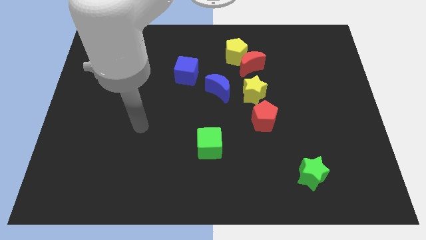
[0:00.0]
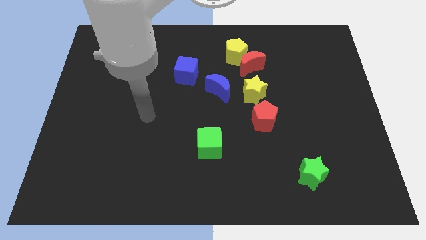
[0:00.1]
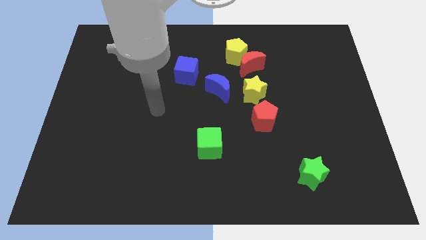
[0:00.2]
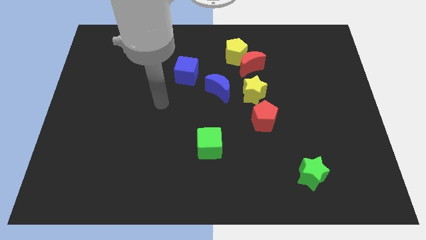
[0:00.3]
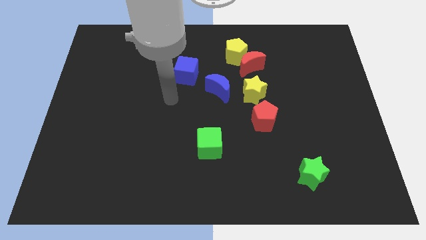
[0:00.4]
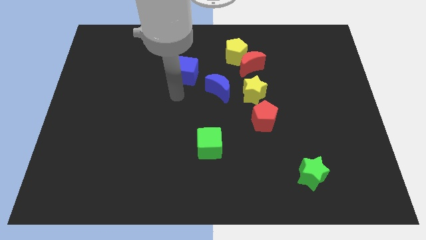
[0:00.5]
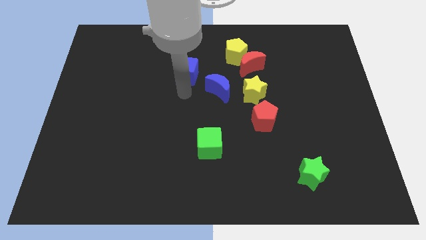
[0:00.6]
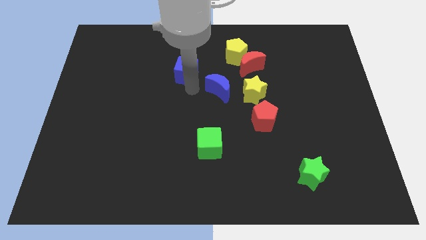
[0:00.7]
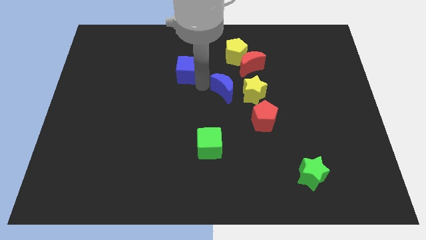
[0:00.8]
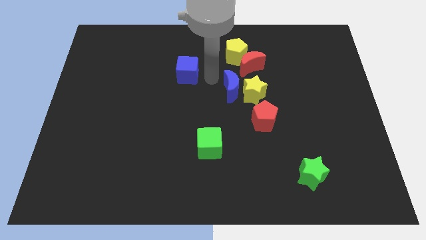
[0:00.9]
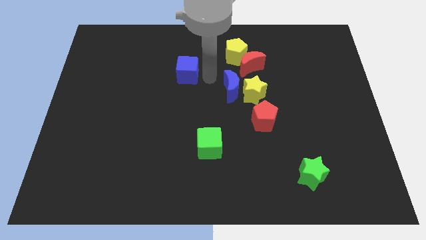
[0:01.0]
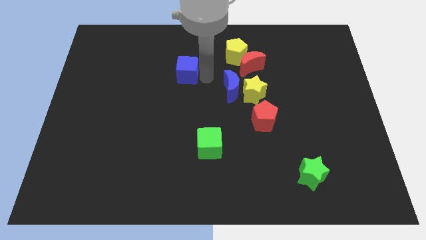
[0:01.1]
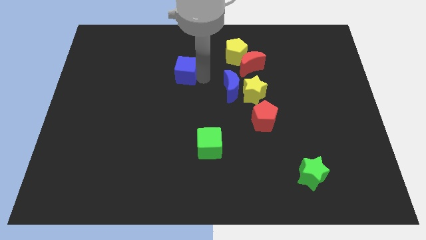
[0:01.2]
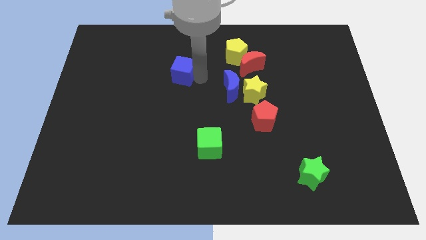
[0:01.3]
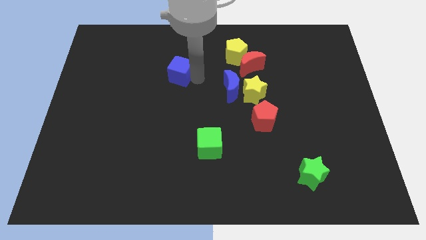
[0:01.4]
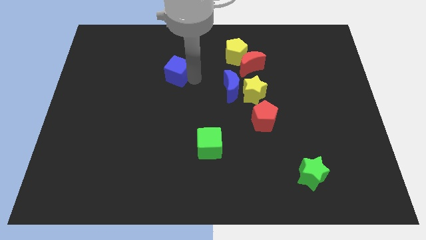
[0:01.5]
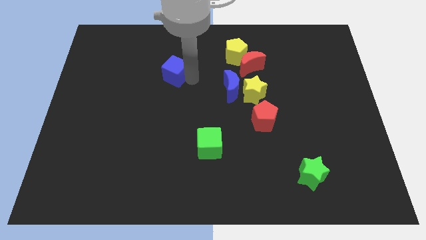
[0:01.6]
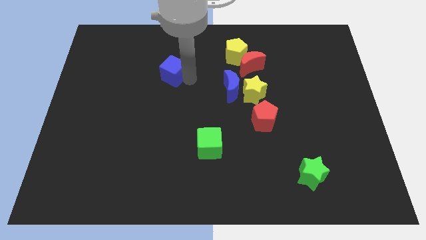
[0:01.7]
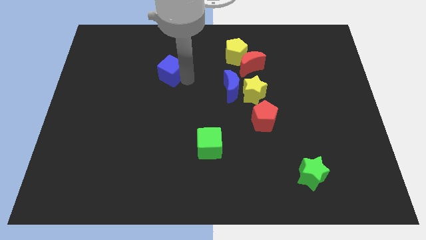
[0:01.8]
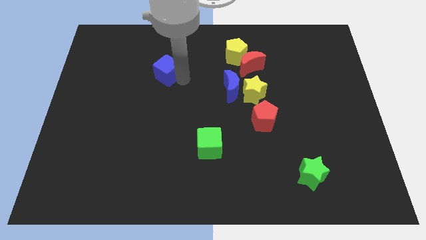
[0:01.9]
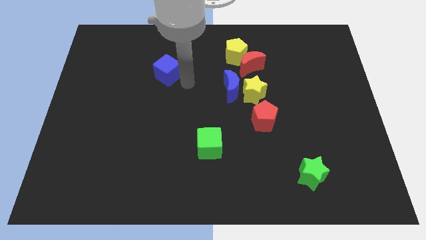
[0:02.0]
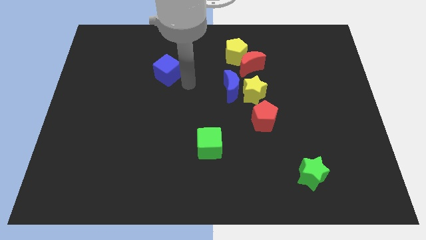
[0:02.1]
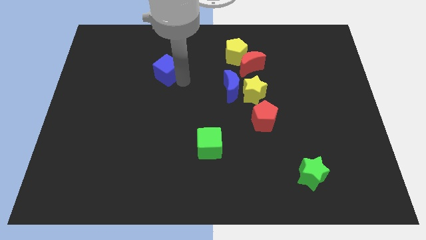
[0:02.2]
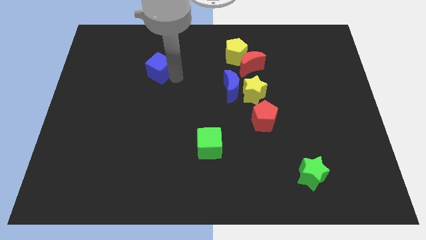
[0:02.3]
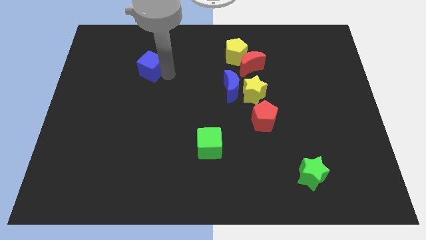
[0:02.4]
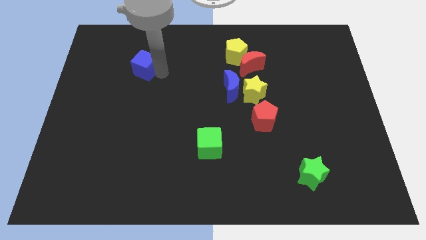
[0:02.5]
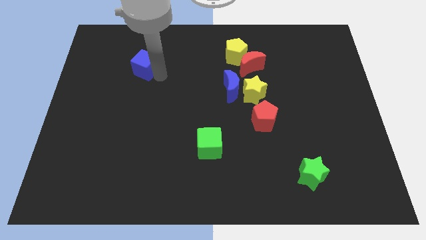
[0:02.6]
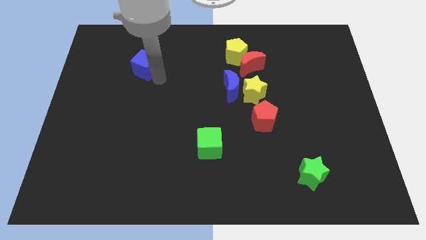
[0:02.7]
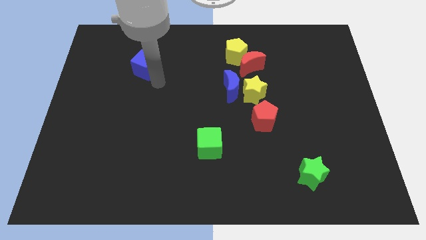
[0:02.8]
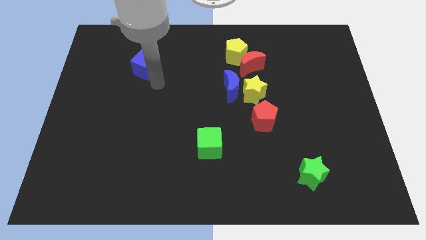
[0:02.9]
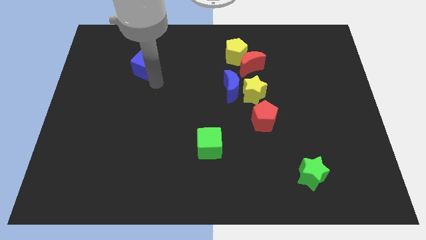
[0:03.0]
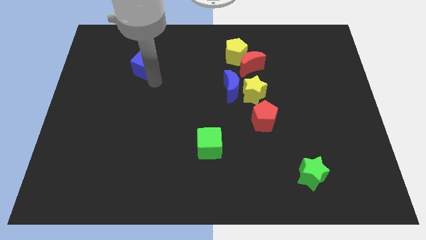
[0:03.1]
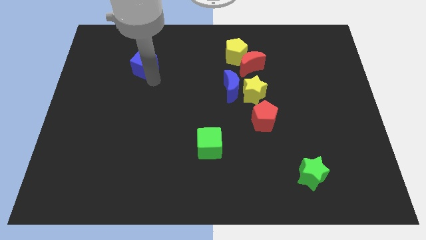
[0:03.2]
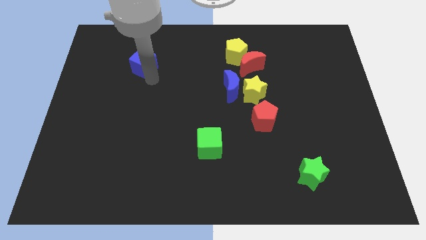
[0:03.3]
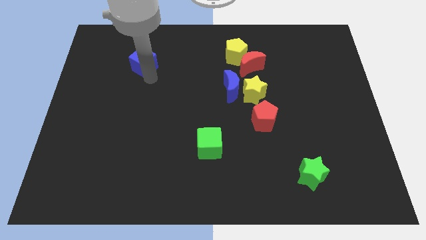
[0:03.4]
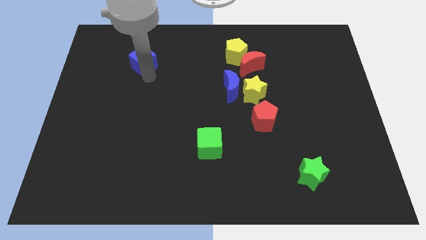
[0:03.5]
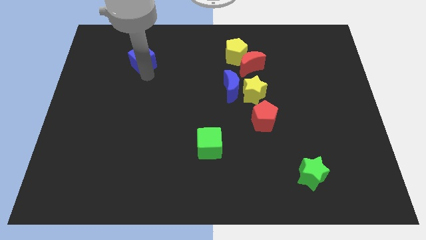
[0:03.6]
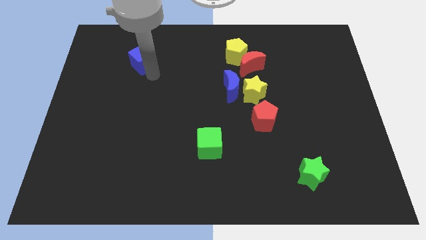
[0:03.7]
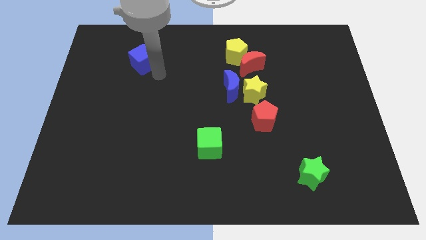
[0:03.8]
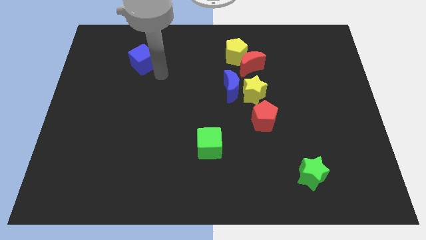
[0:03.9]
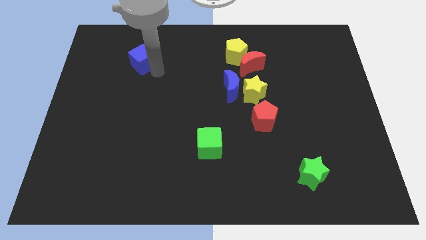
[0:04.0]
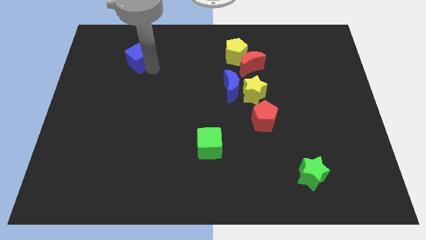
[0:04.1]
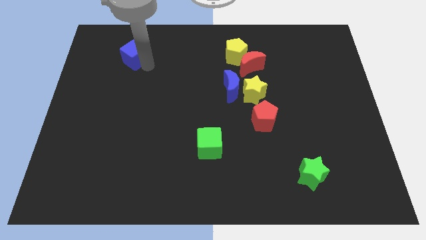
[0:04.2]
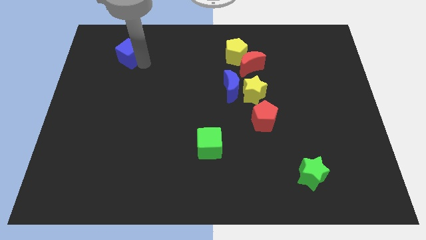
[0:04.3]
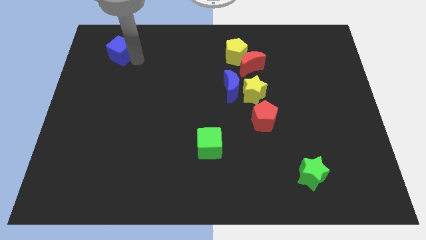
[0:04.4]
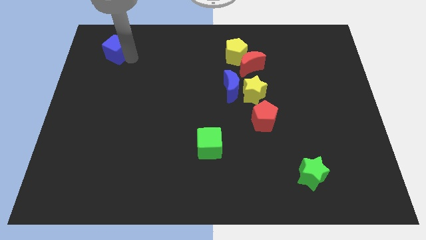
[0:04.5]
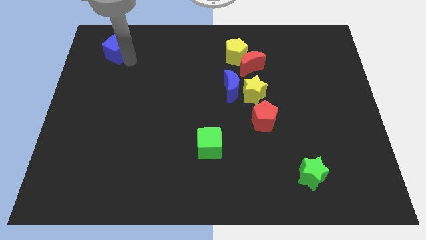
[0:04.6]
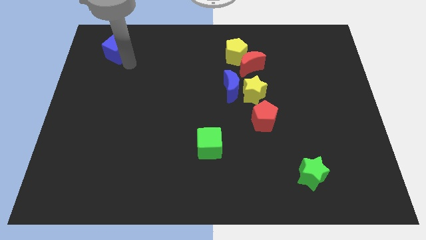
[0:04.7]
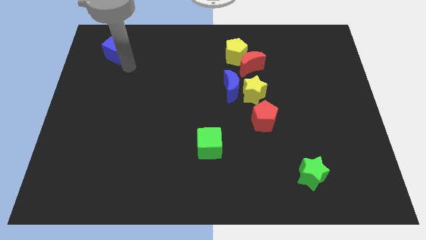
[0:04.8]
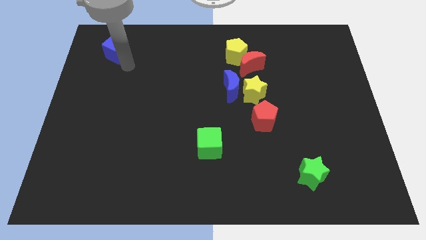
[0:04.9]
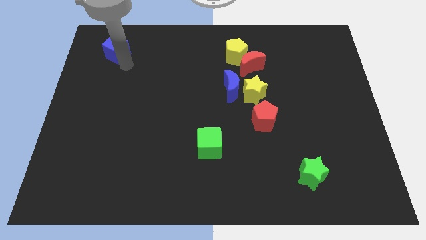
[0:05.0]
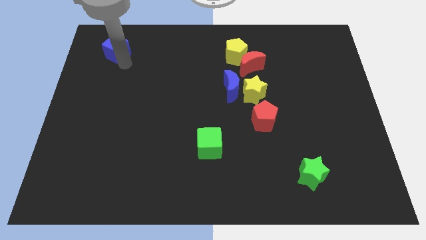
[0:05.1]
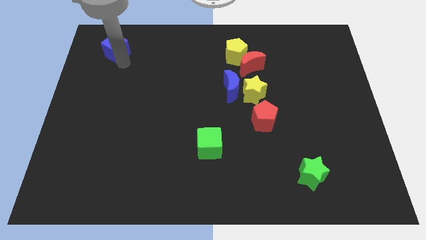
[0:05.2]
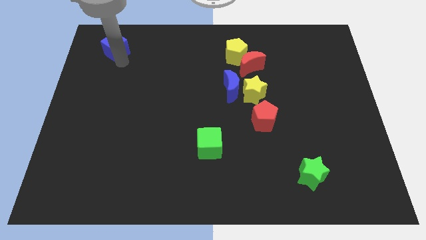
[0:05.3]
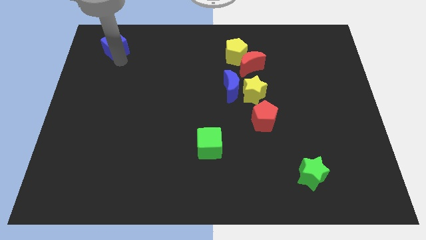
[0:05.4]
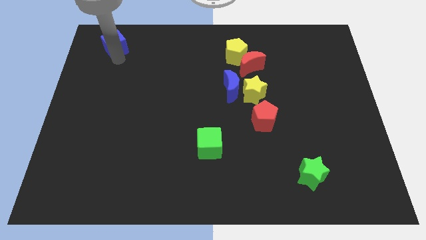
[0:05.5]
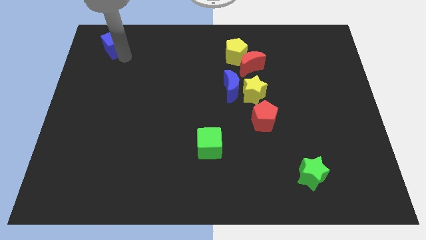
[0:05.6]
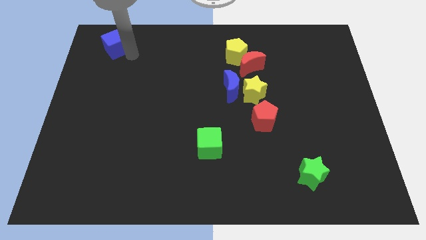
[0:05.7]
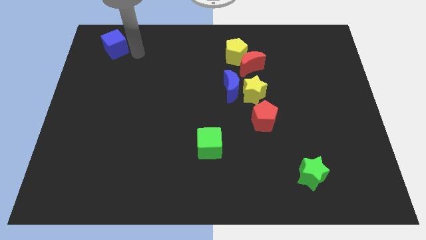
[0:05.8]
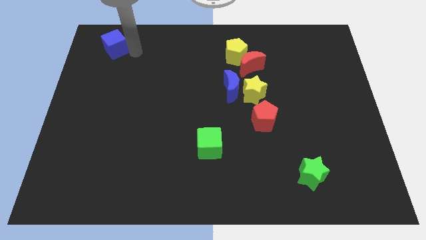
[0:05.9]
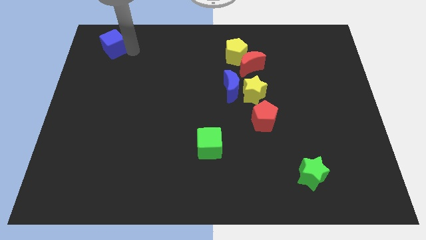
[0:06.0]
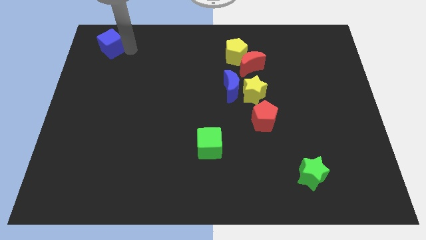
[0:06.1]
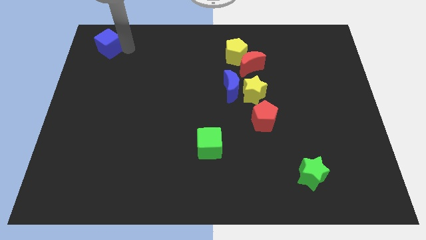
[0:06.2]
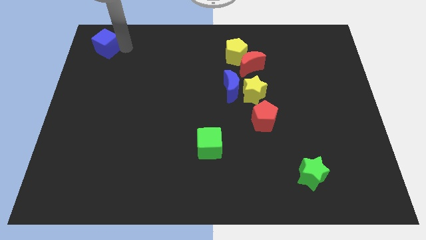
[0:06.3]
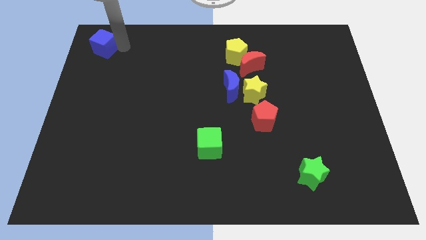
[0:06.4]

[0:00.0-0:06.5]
push the blue cube to the top left corner
